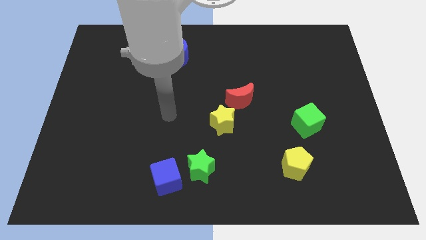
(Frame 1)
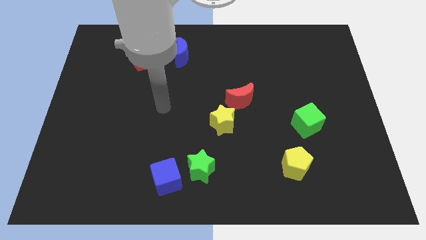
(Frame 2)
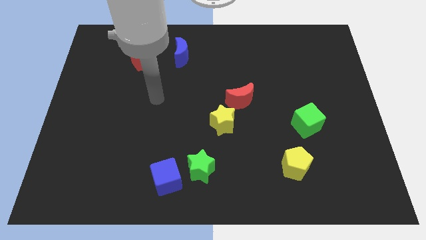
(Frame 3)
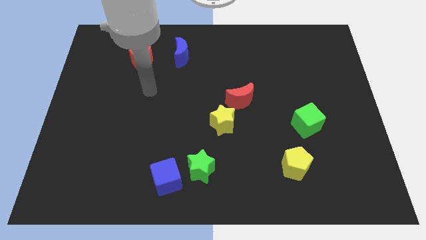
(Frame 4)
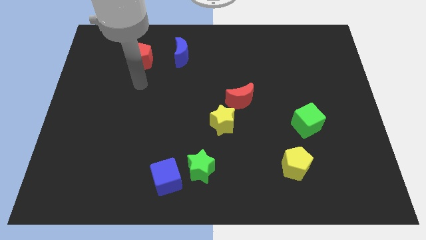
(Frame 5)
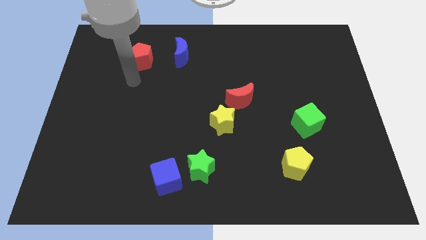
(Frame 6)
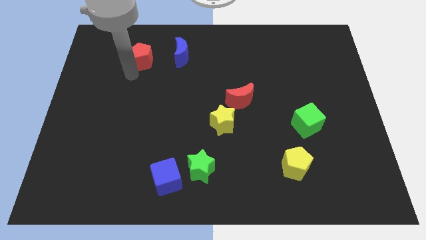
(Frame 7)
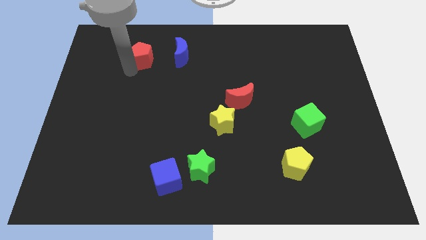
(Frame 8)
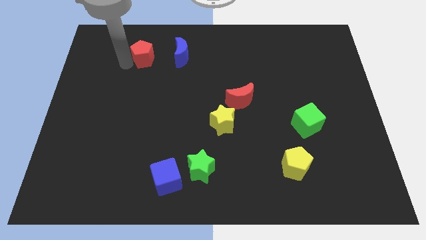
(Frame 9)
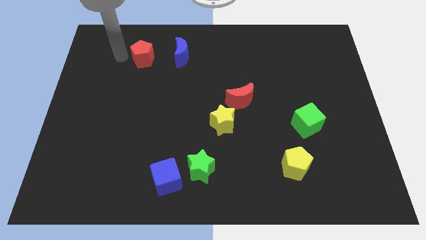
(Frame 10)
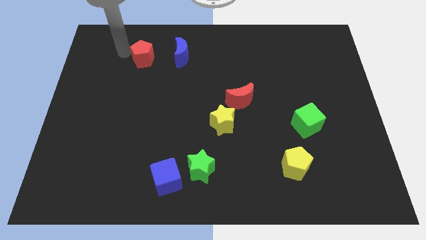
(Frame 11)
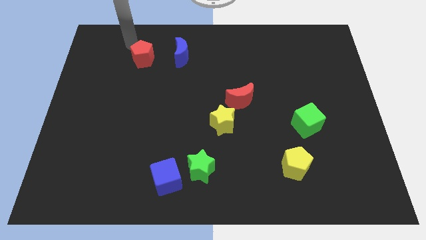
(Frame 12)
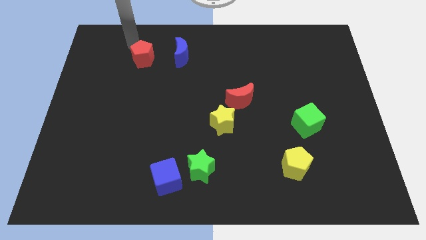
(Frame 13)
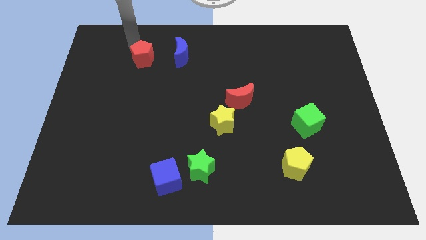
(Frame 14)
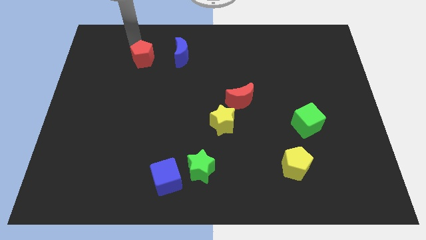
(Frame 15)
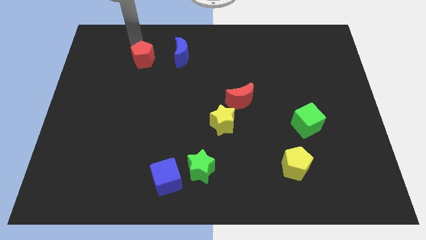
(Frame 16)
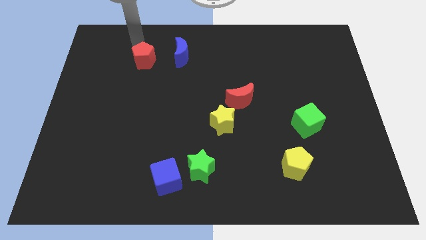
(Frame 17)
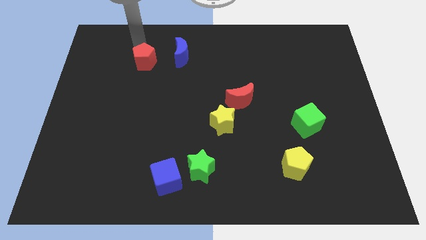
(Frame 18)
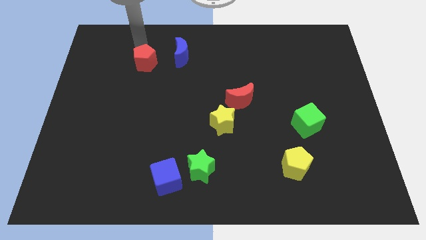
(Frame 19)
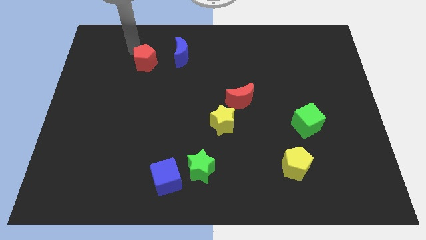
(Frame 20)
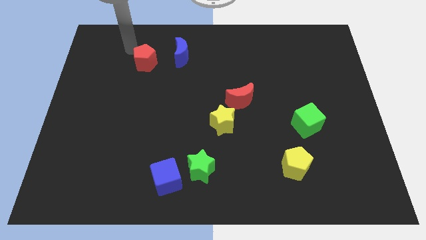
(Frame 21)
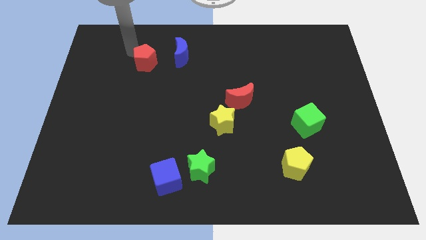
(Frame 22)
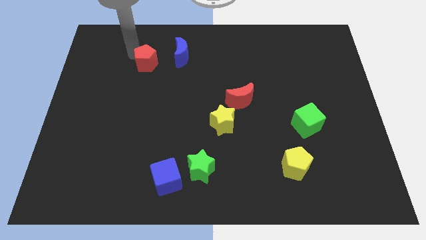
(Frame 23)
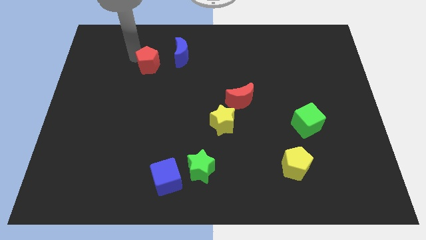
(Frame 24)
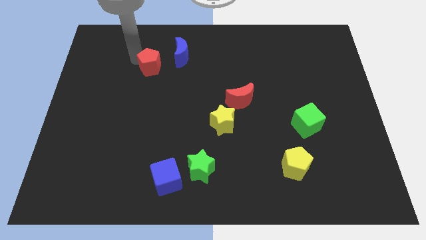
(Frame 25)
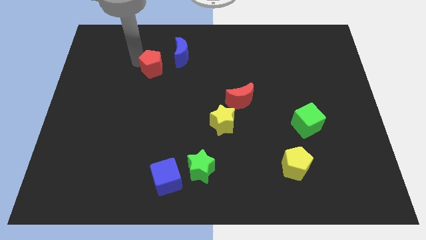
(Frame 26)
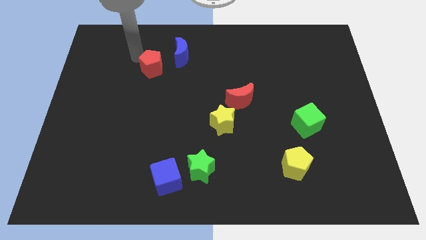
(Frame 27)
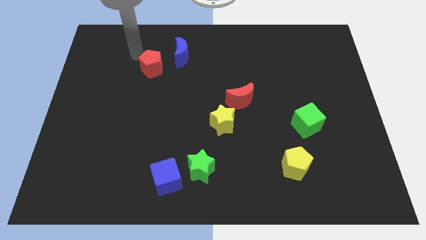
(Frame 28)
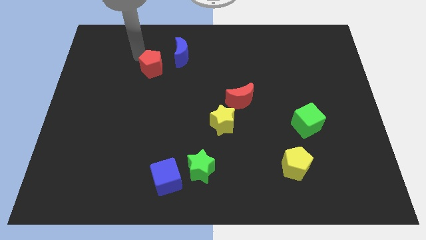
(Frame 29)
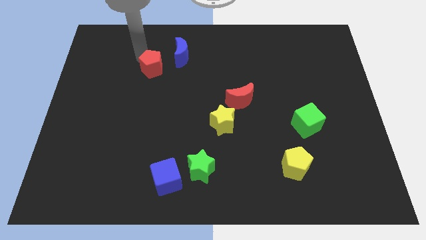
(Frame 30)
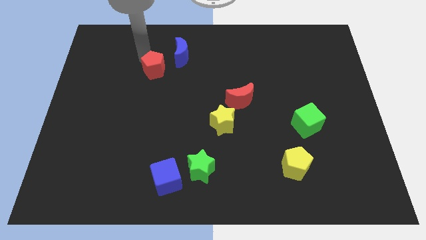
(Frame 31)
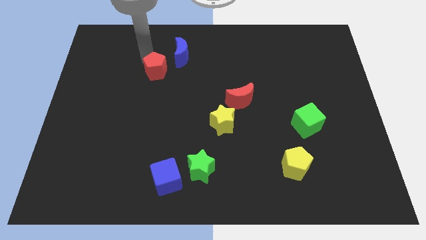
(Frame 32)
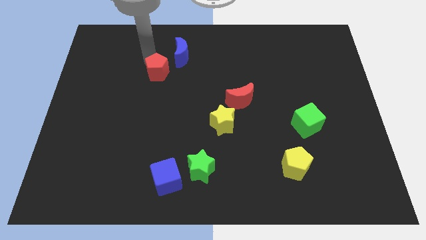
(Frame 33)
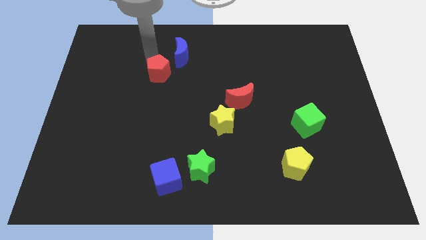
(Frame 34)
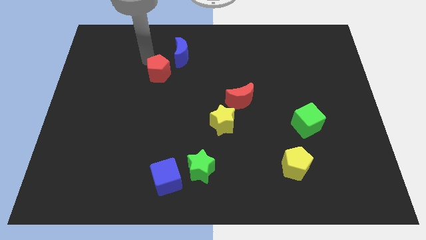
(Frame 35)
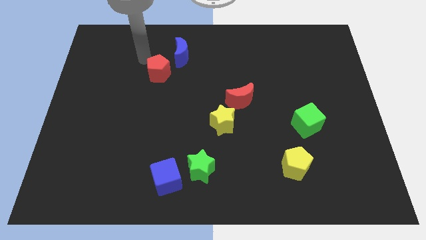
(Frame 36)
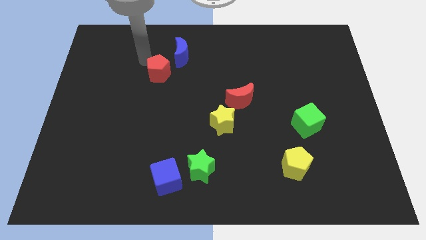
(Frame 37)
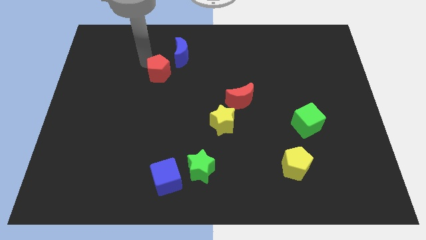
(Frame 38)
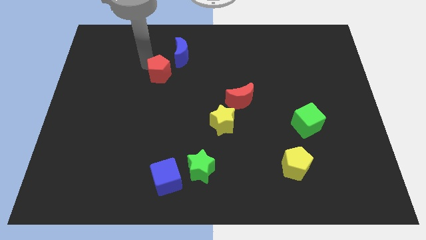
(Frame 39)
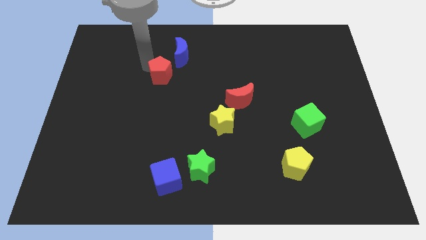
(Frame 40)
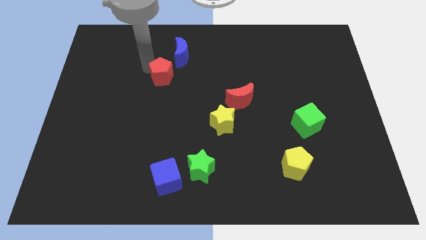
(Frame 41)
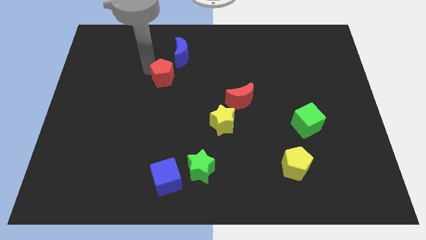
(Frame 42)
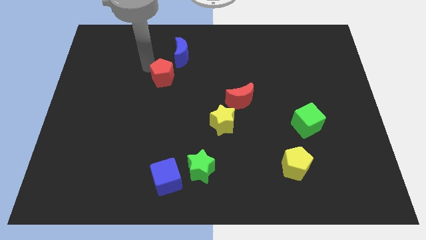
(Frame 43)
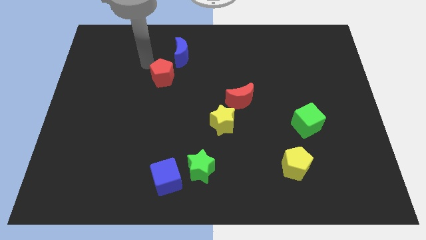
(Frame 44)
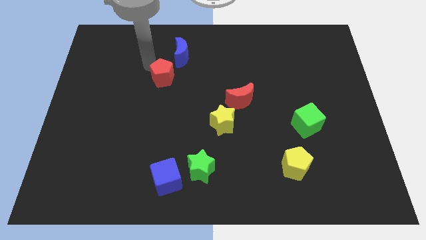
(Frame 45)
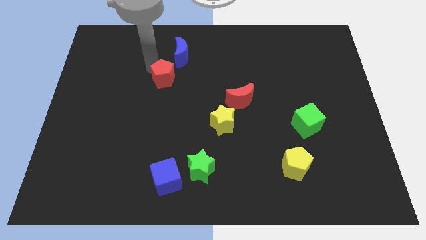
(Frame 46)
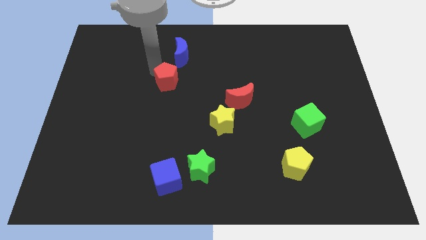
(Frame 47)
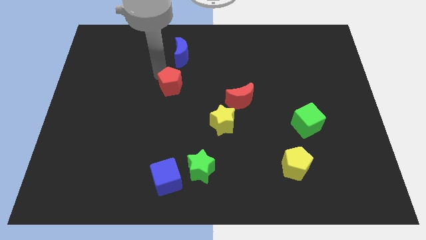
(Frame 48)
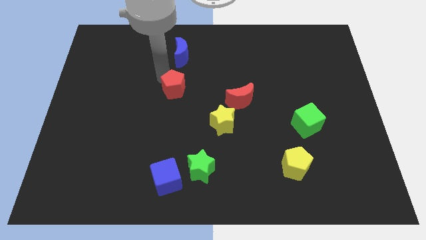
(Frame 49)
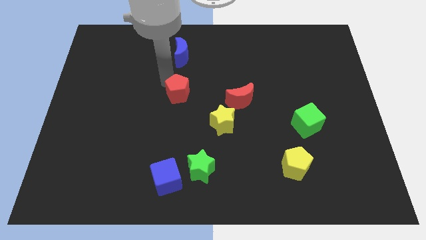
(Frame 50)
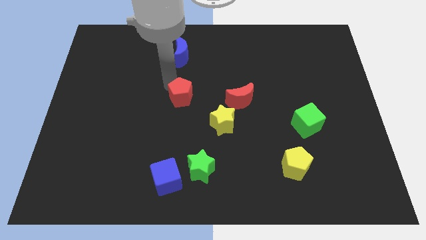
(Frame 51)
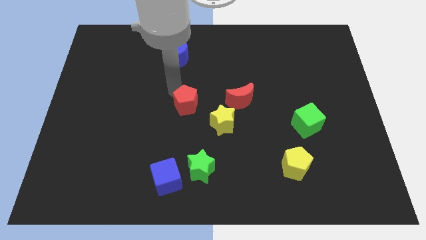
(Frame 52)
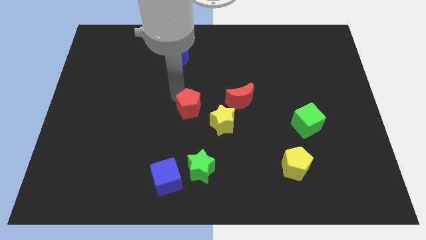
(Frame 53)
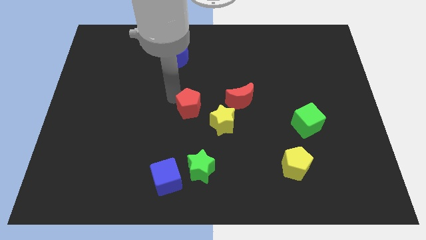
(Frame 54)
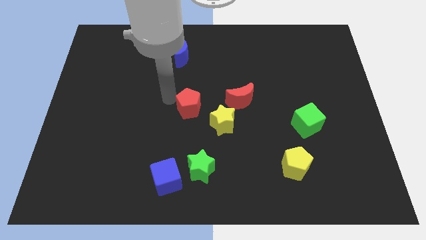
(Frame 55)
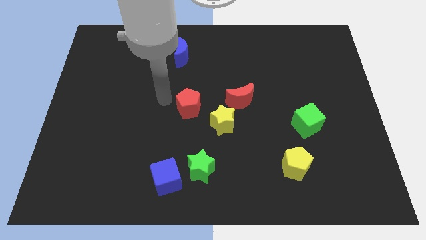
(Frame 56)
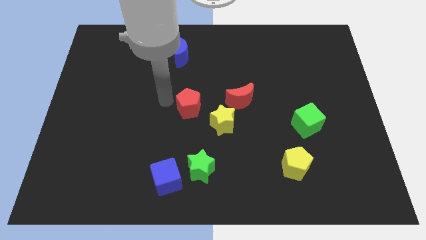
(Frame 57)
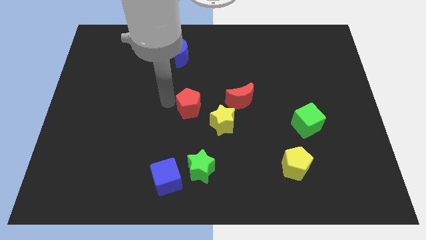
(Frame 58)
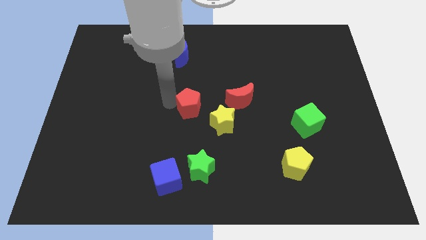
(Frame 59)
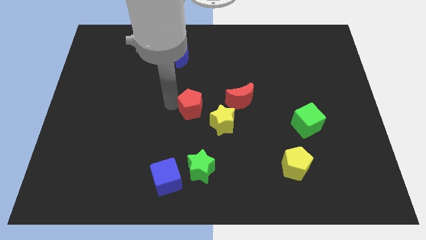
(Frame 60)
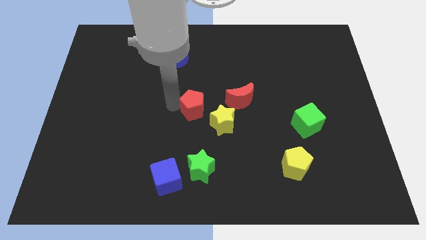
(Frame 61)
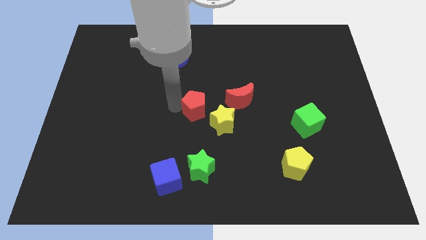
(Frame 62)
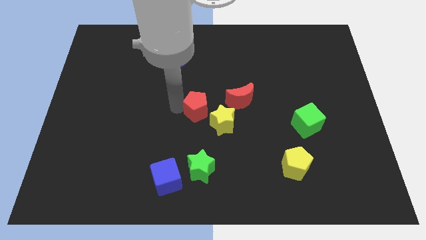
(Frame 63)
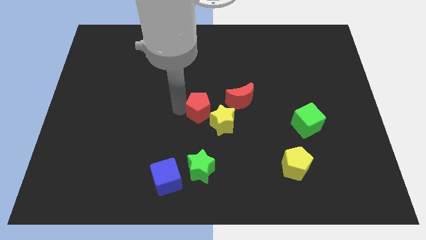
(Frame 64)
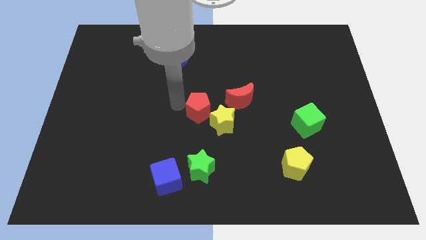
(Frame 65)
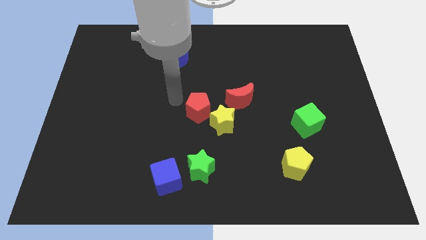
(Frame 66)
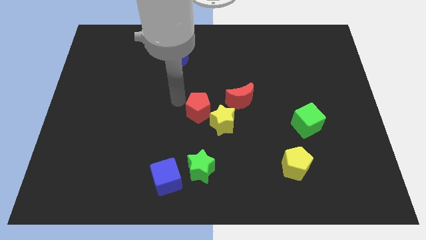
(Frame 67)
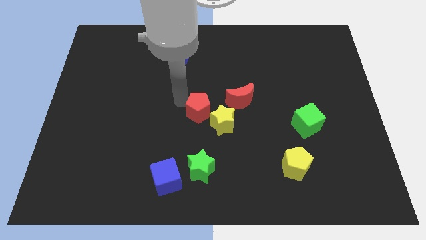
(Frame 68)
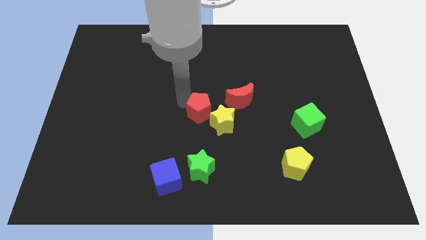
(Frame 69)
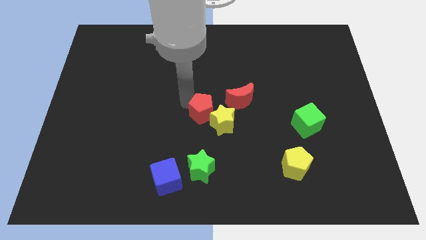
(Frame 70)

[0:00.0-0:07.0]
push the red pentagon next to the yellow star

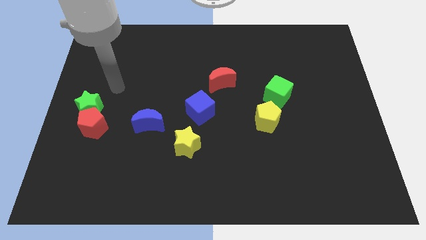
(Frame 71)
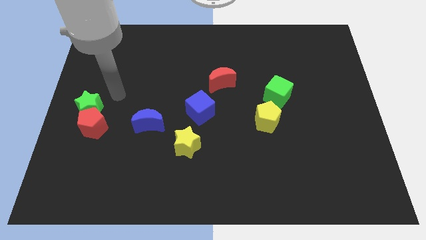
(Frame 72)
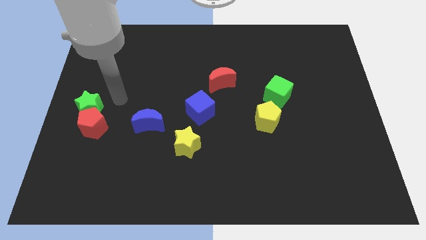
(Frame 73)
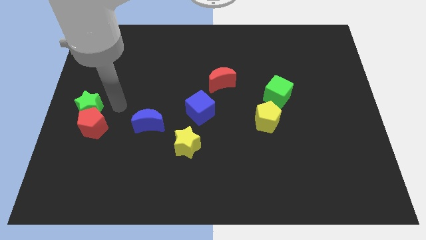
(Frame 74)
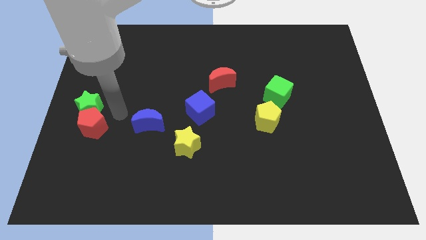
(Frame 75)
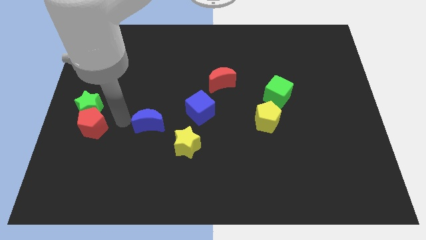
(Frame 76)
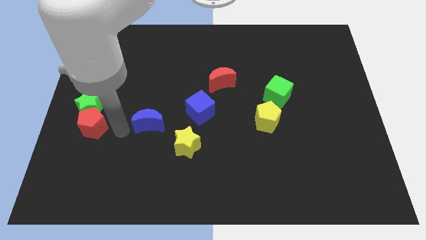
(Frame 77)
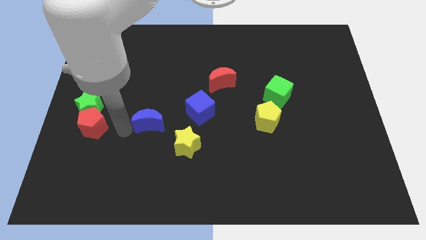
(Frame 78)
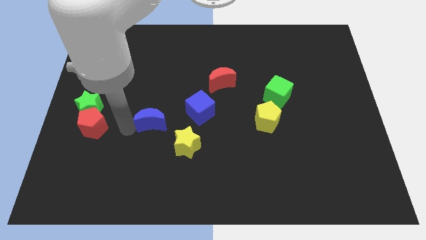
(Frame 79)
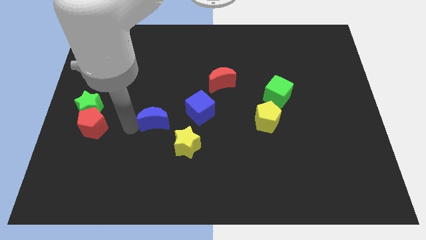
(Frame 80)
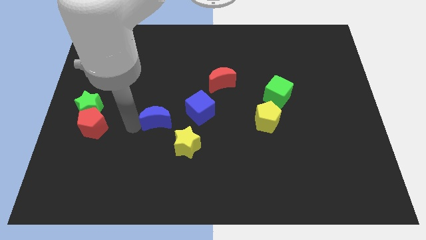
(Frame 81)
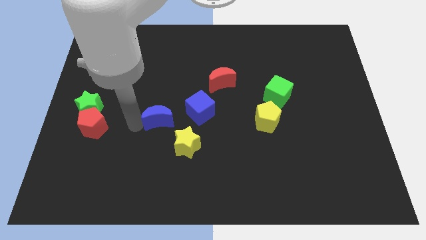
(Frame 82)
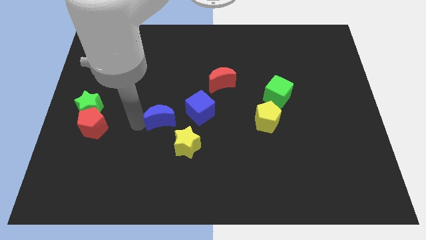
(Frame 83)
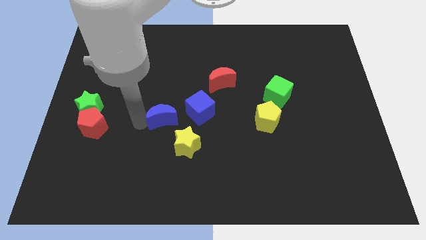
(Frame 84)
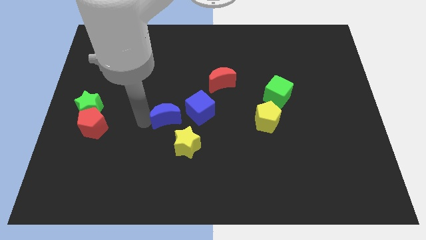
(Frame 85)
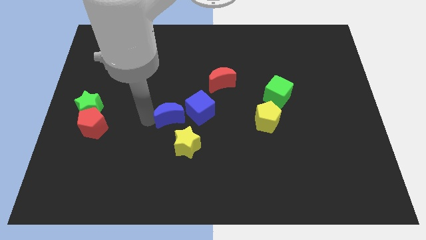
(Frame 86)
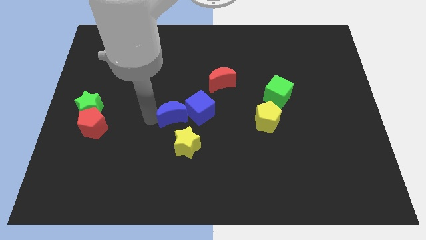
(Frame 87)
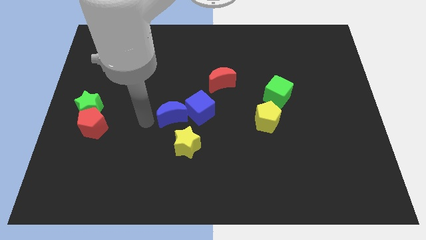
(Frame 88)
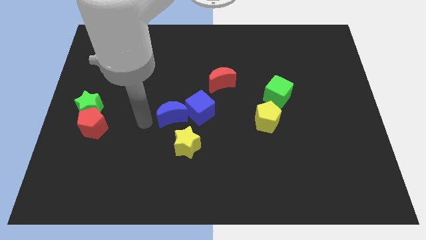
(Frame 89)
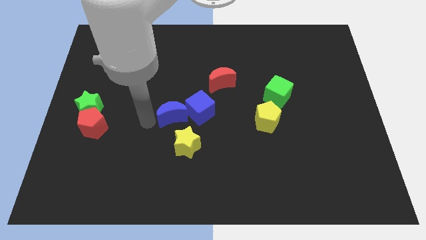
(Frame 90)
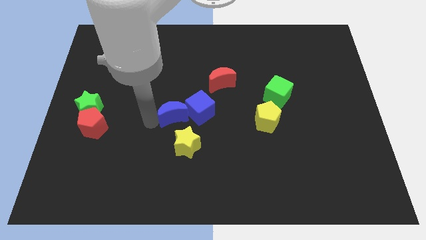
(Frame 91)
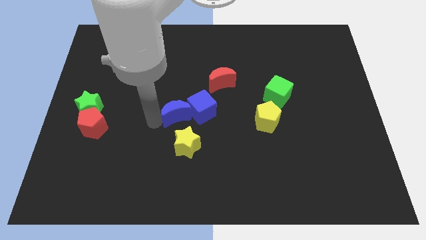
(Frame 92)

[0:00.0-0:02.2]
slide the blue moon next to the blue cube
